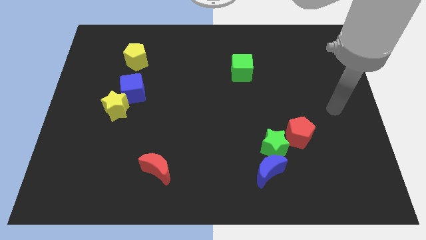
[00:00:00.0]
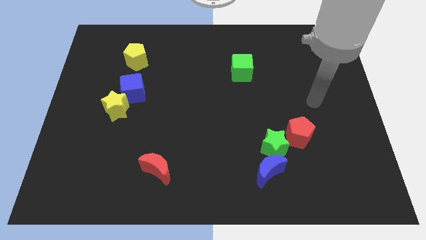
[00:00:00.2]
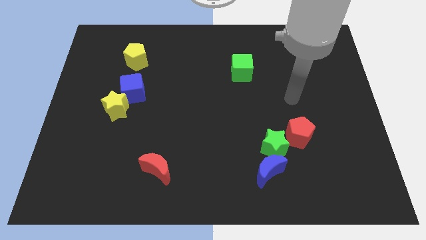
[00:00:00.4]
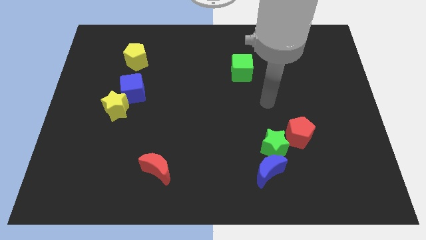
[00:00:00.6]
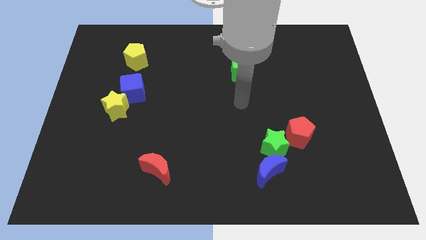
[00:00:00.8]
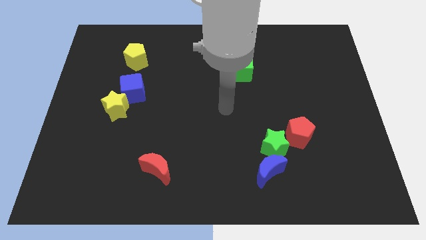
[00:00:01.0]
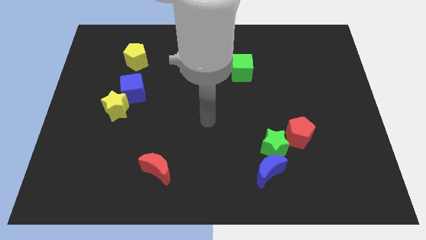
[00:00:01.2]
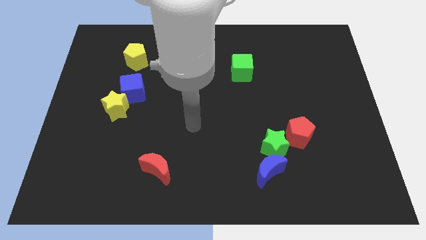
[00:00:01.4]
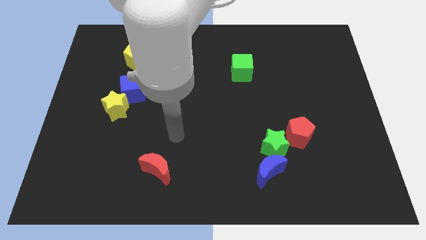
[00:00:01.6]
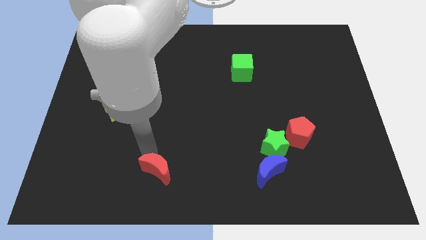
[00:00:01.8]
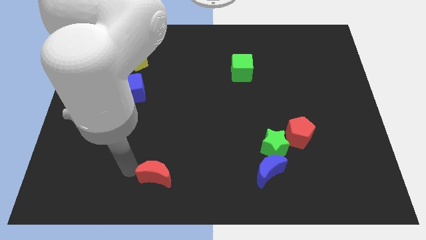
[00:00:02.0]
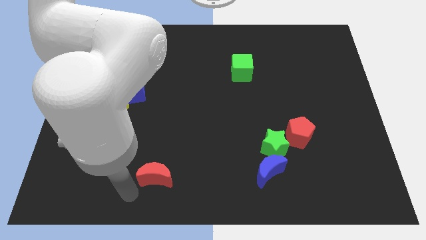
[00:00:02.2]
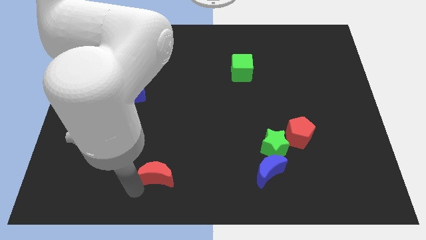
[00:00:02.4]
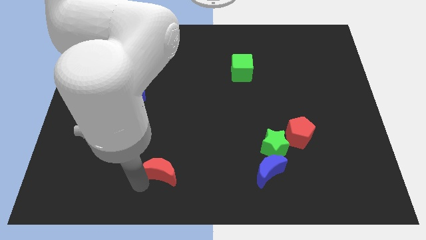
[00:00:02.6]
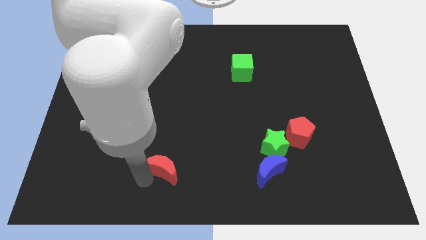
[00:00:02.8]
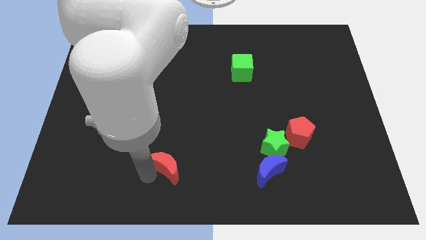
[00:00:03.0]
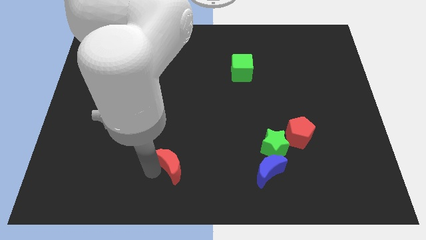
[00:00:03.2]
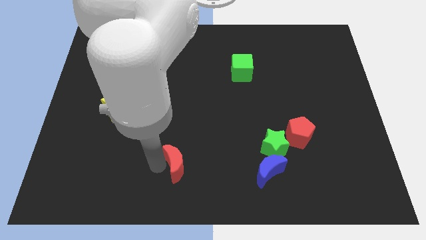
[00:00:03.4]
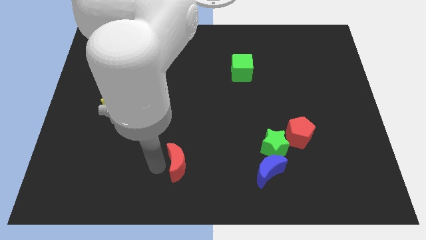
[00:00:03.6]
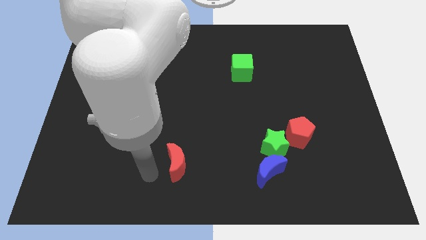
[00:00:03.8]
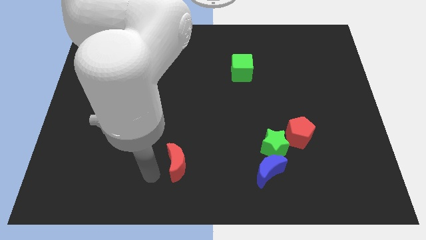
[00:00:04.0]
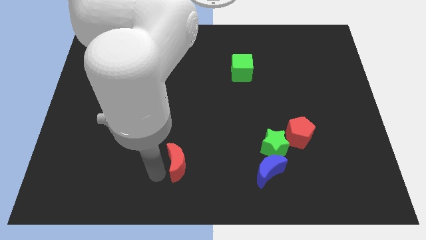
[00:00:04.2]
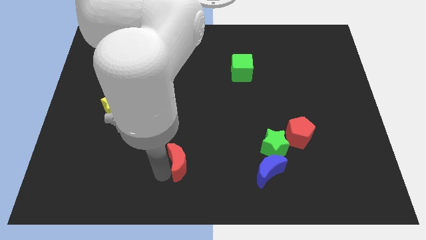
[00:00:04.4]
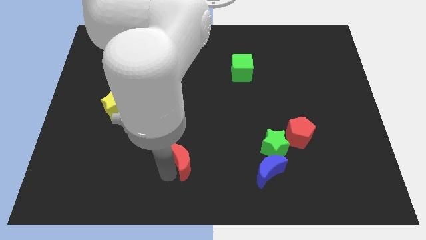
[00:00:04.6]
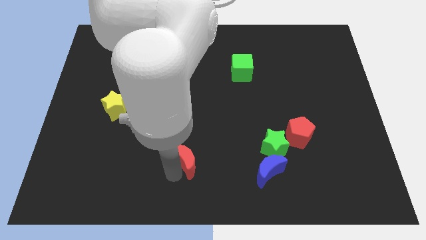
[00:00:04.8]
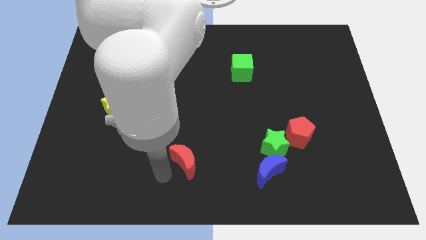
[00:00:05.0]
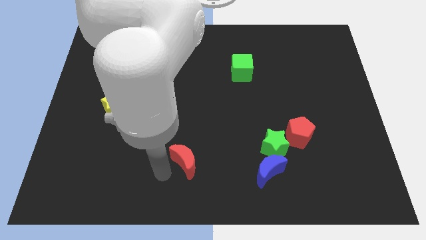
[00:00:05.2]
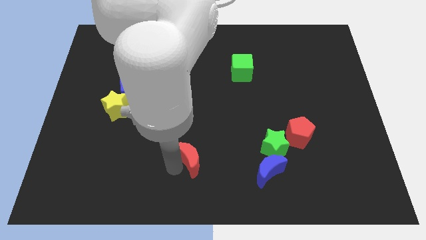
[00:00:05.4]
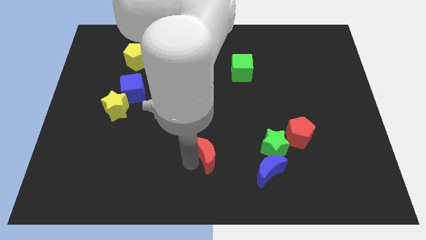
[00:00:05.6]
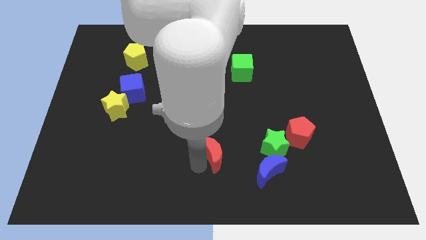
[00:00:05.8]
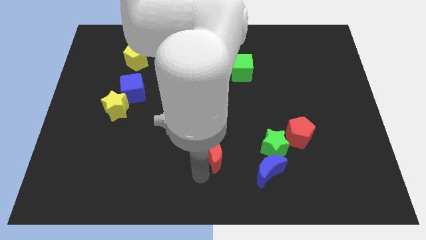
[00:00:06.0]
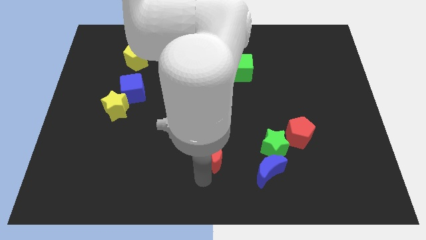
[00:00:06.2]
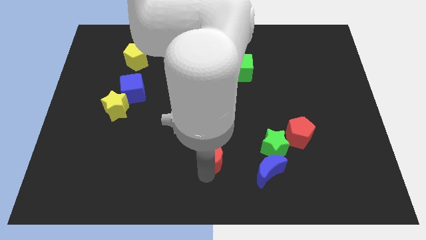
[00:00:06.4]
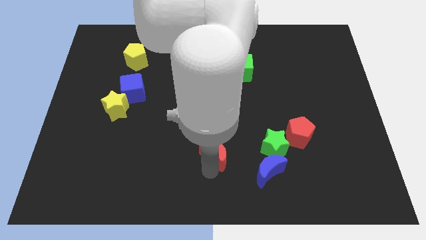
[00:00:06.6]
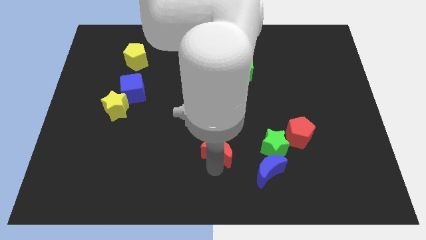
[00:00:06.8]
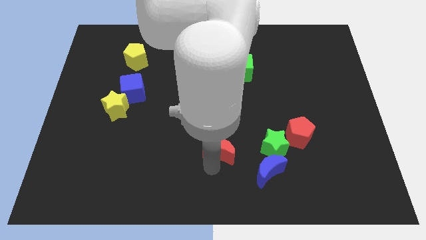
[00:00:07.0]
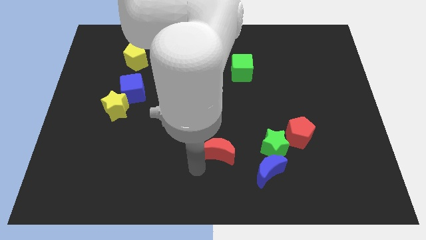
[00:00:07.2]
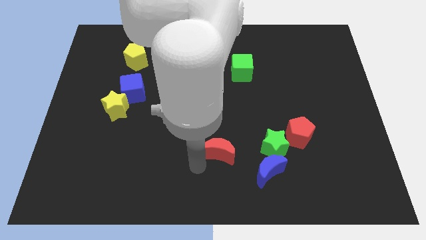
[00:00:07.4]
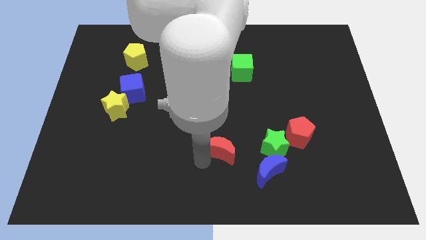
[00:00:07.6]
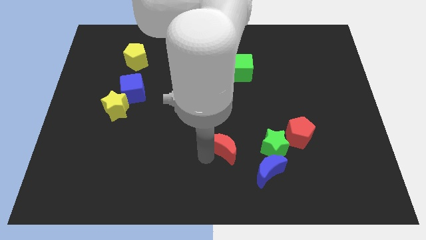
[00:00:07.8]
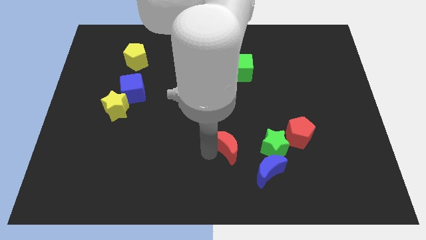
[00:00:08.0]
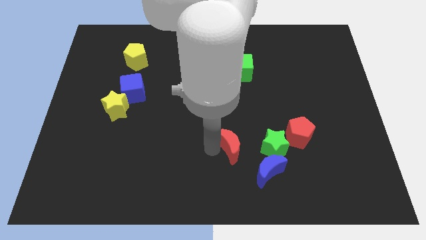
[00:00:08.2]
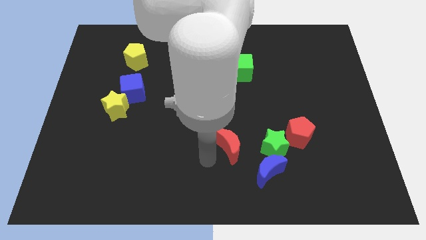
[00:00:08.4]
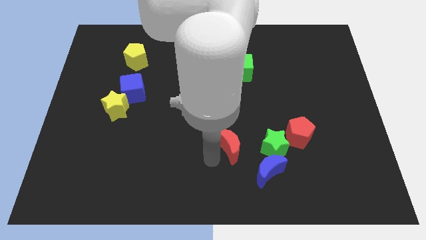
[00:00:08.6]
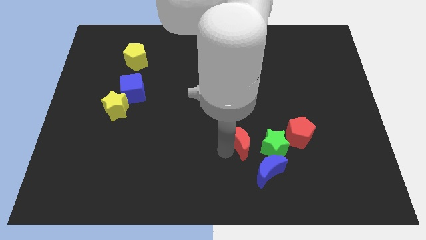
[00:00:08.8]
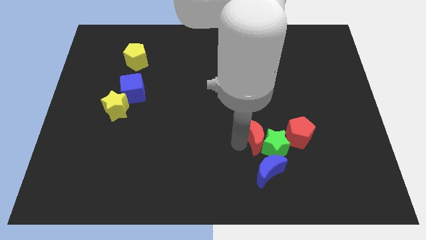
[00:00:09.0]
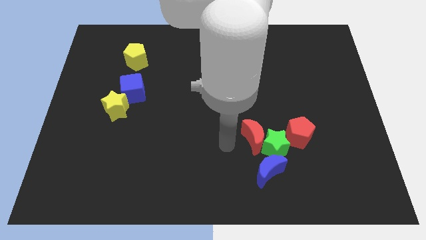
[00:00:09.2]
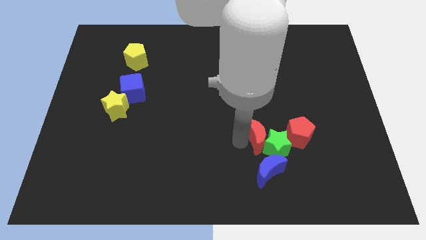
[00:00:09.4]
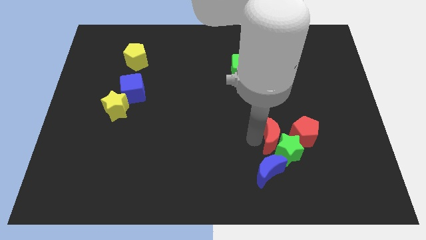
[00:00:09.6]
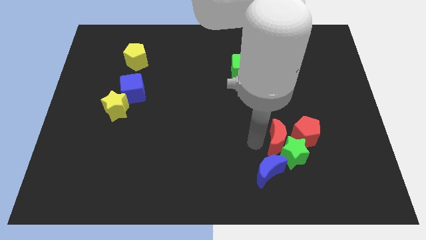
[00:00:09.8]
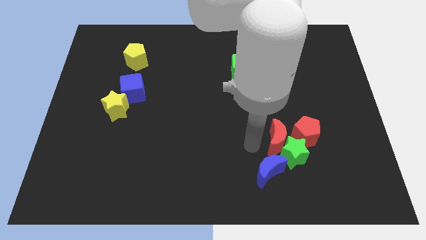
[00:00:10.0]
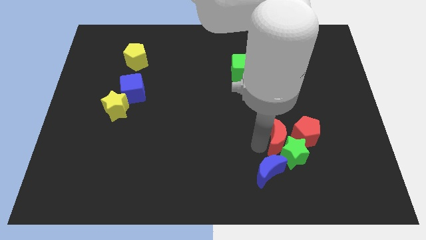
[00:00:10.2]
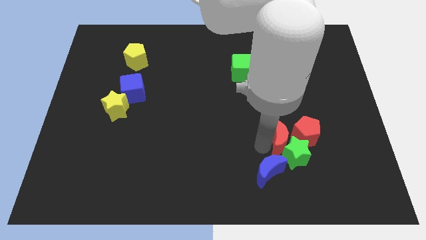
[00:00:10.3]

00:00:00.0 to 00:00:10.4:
put the red moon close to the red pentagon

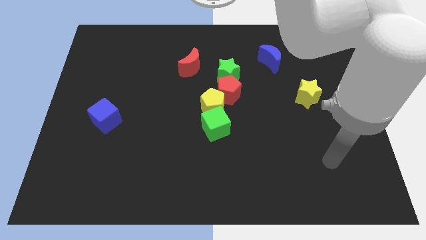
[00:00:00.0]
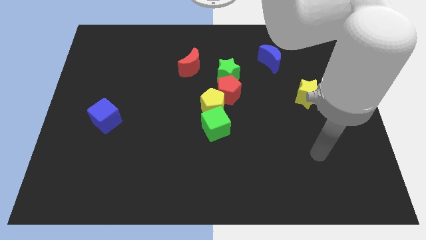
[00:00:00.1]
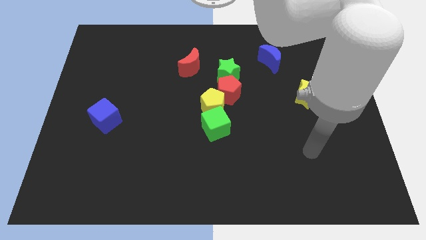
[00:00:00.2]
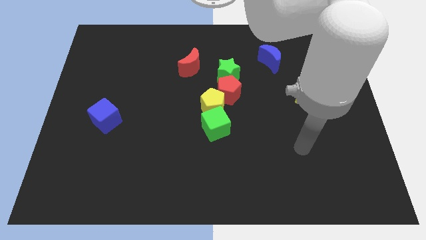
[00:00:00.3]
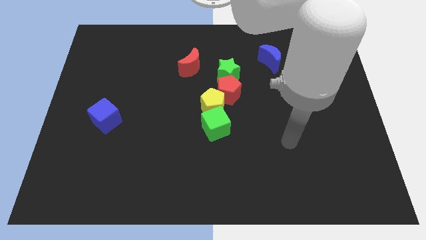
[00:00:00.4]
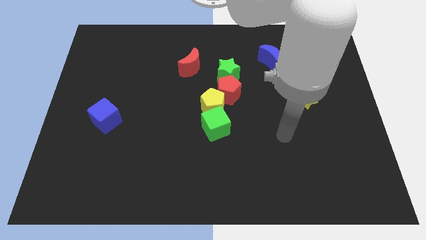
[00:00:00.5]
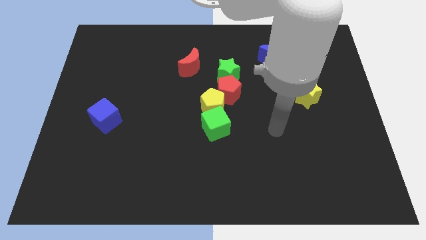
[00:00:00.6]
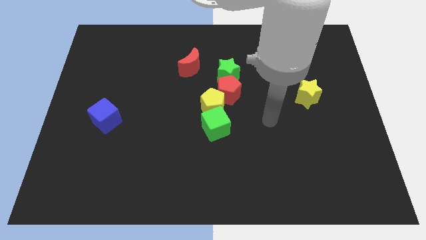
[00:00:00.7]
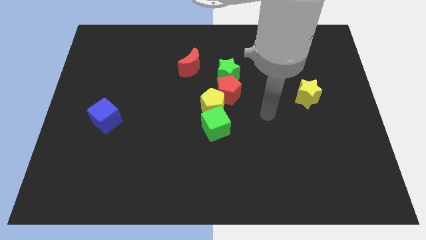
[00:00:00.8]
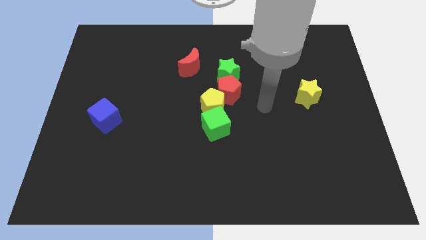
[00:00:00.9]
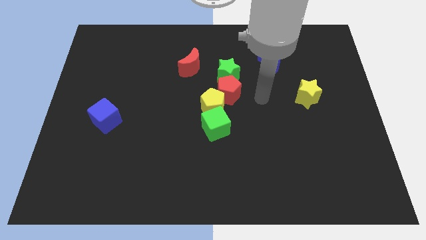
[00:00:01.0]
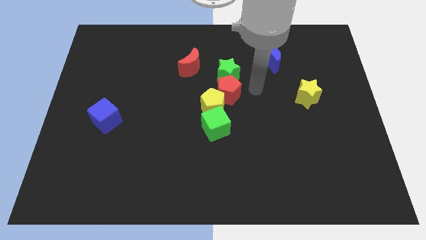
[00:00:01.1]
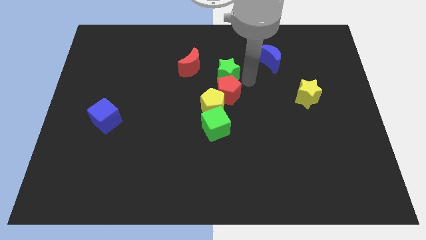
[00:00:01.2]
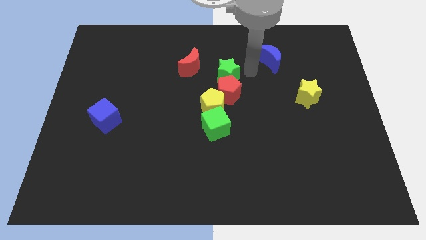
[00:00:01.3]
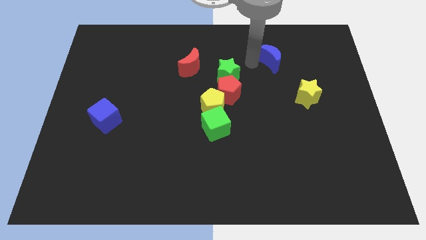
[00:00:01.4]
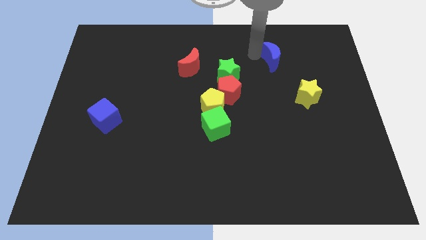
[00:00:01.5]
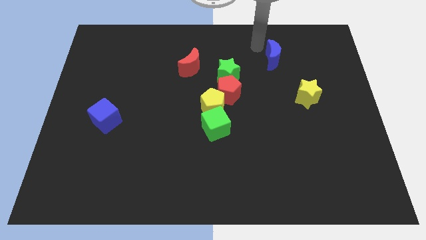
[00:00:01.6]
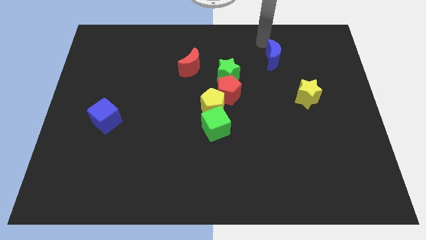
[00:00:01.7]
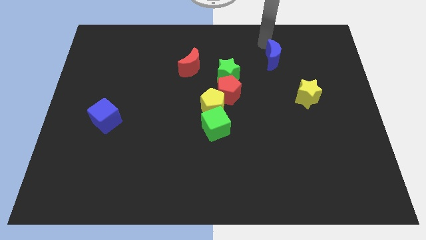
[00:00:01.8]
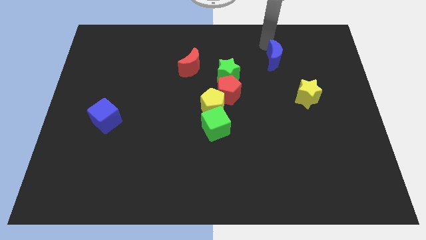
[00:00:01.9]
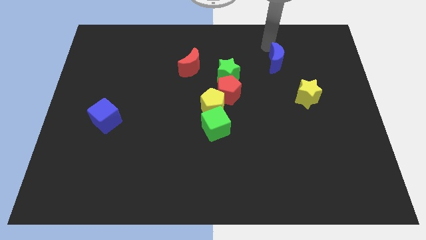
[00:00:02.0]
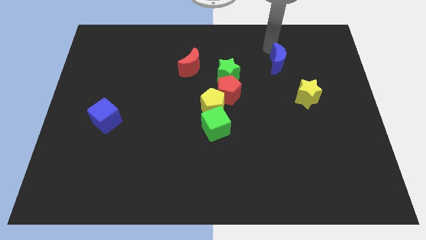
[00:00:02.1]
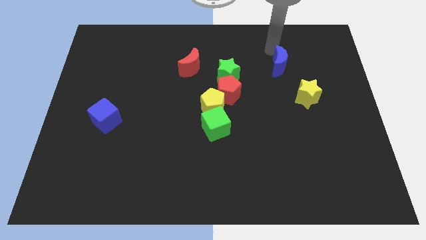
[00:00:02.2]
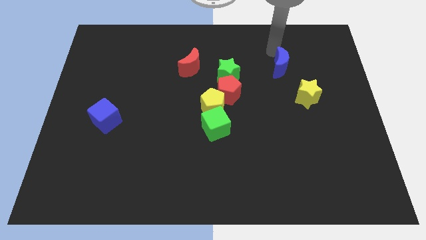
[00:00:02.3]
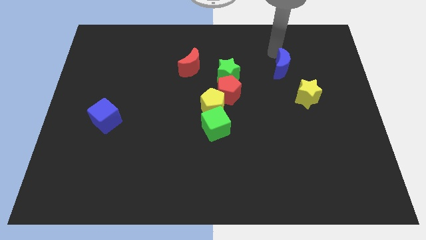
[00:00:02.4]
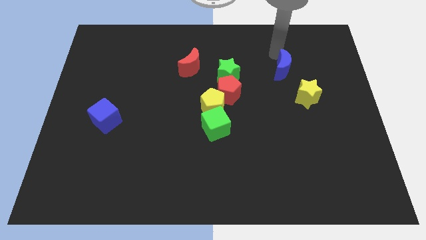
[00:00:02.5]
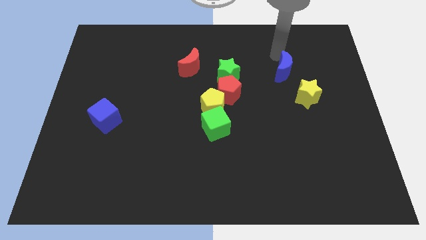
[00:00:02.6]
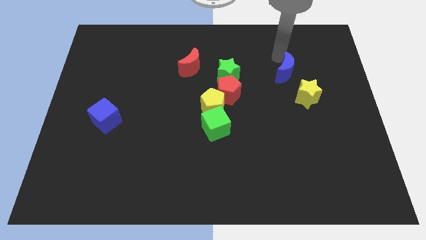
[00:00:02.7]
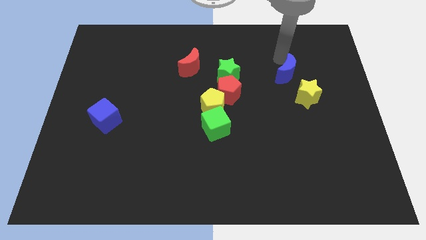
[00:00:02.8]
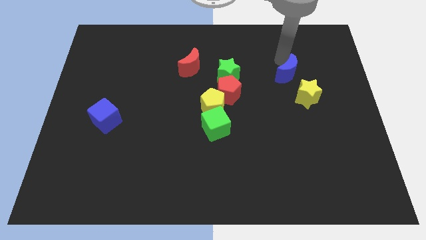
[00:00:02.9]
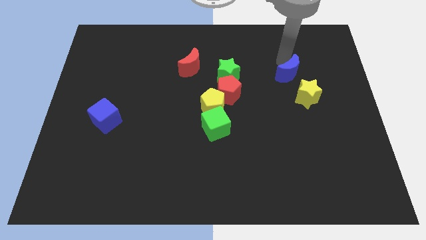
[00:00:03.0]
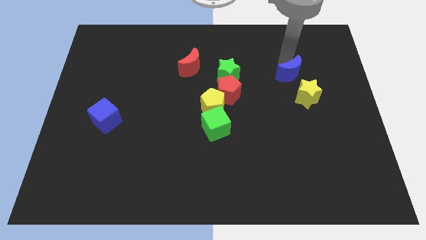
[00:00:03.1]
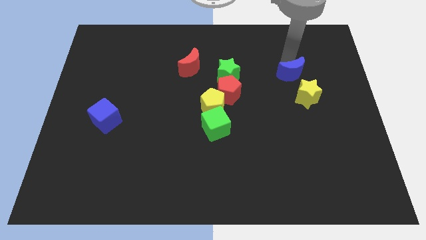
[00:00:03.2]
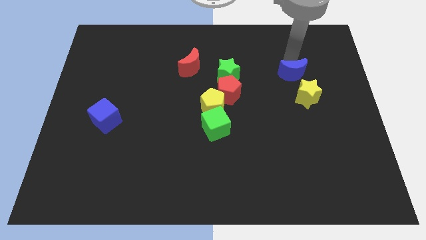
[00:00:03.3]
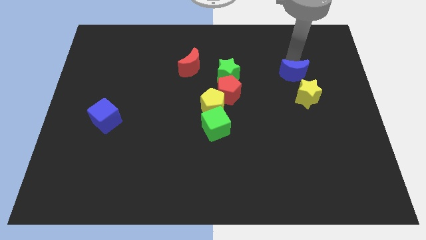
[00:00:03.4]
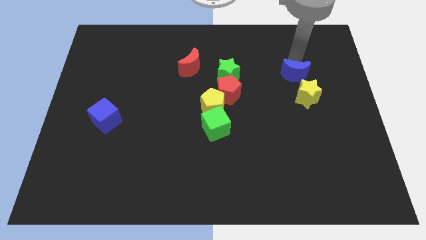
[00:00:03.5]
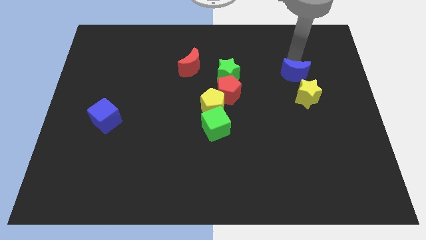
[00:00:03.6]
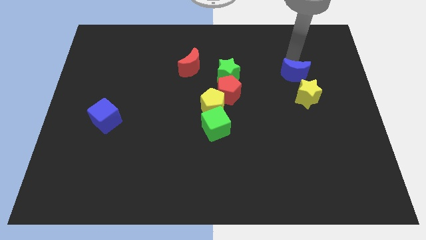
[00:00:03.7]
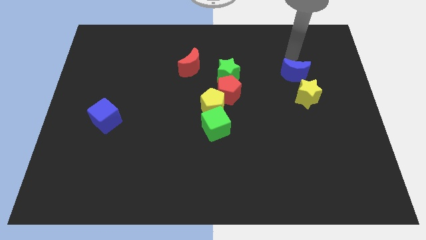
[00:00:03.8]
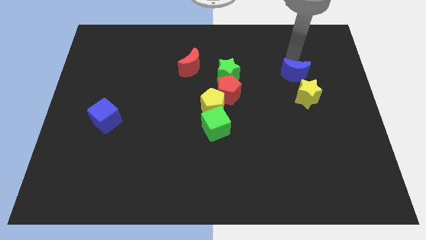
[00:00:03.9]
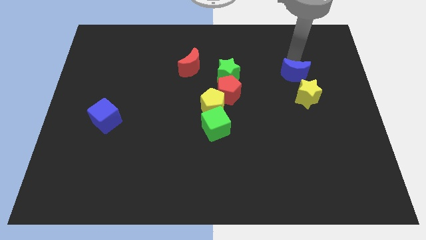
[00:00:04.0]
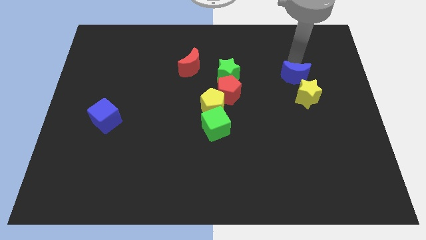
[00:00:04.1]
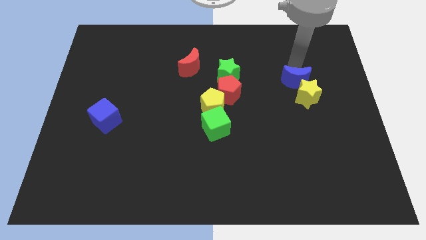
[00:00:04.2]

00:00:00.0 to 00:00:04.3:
push the blue moon to the yellow star
